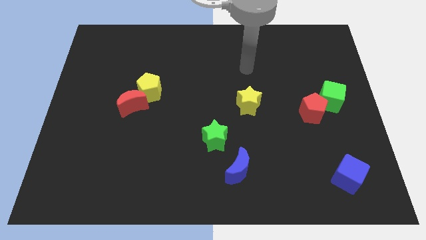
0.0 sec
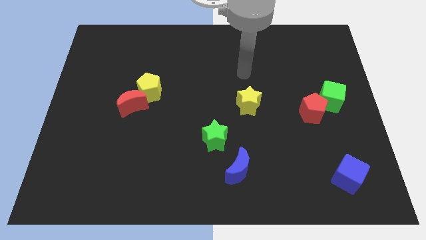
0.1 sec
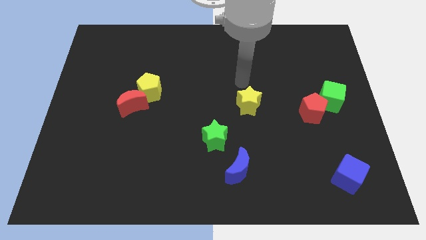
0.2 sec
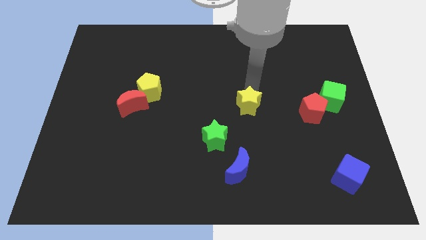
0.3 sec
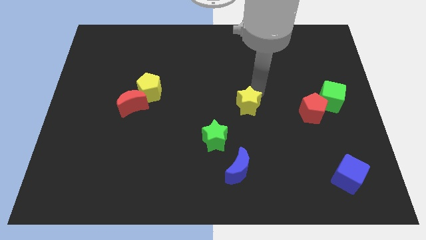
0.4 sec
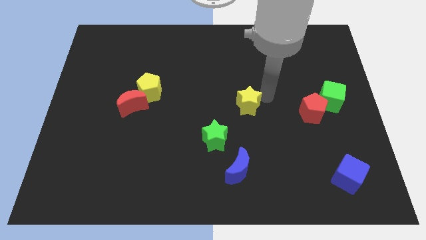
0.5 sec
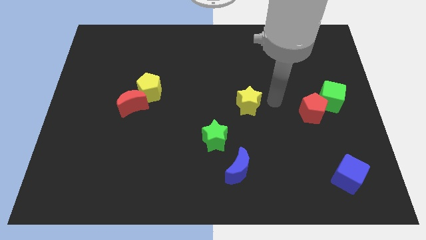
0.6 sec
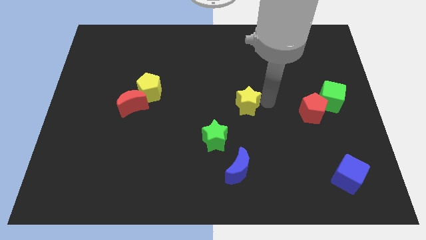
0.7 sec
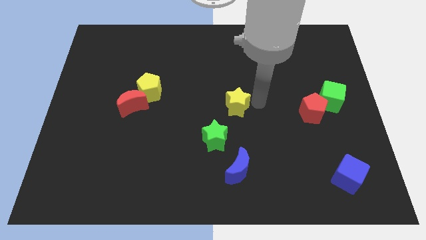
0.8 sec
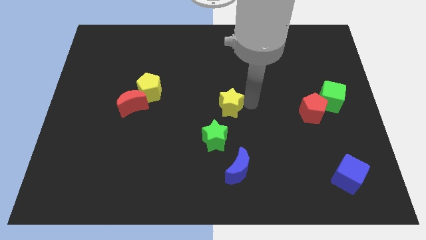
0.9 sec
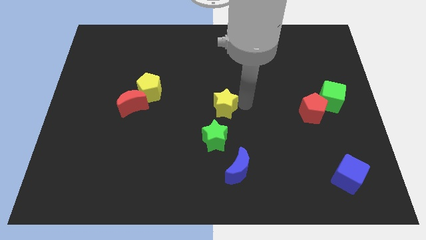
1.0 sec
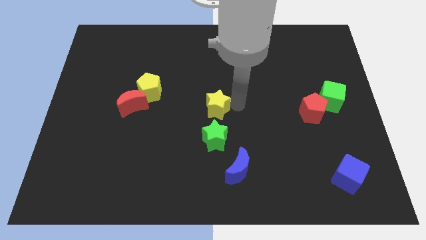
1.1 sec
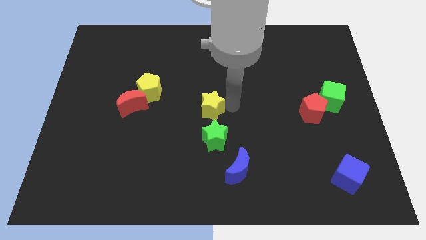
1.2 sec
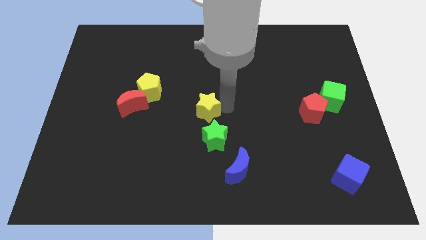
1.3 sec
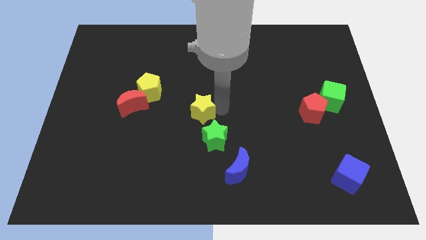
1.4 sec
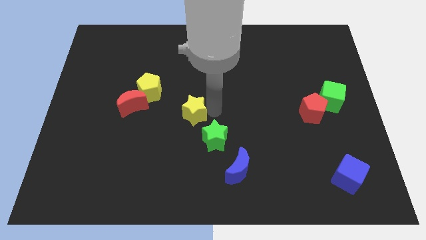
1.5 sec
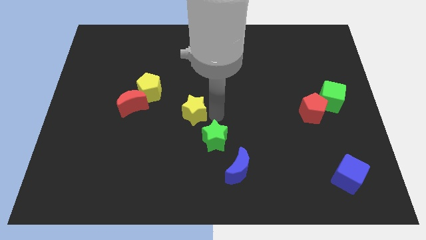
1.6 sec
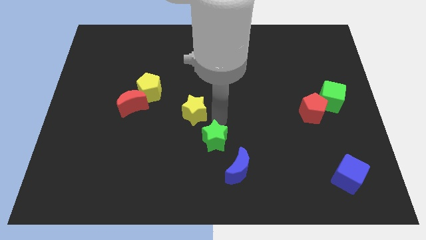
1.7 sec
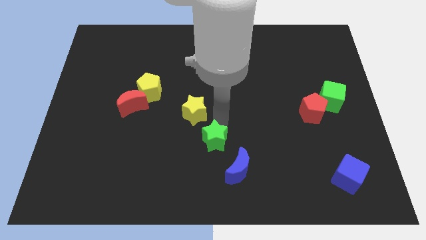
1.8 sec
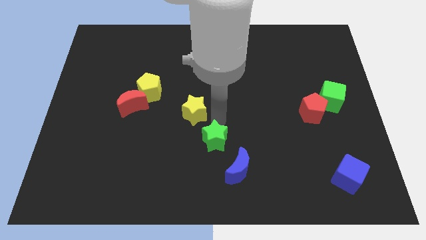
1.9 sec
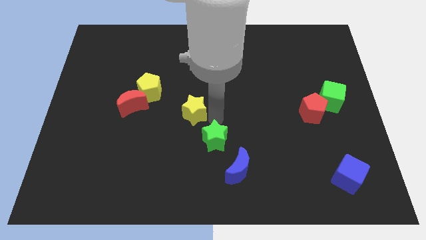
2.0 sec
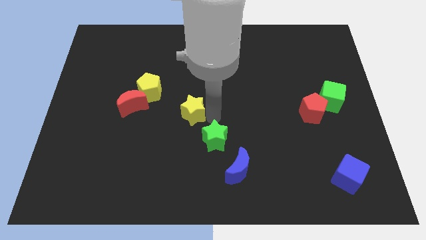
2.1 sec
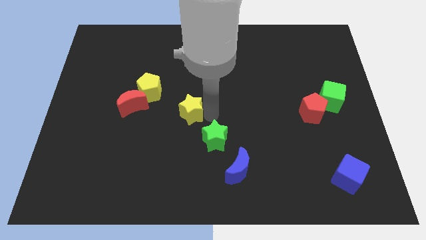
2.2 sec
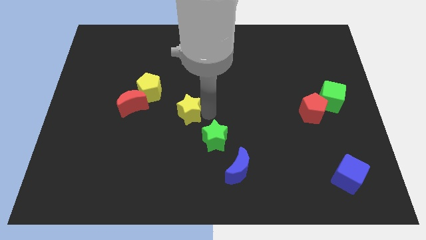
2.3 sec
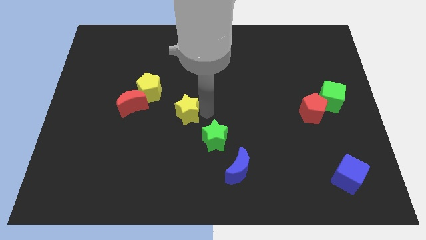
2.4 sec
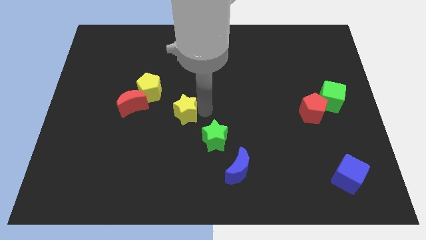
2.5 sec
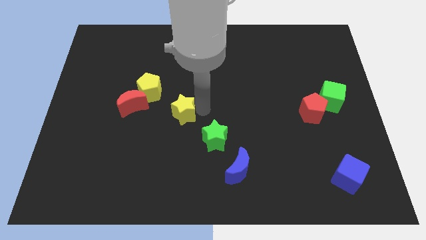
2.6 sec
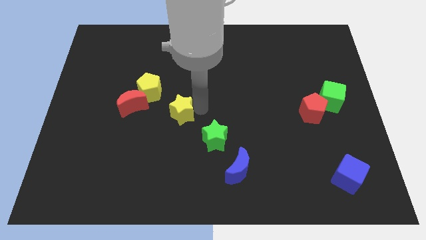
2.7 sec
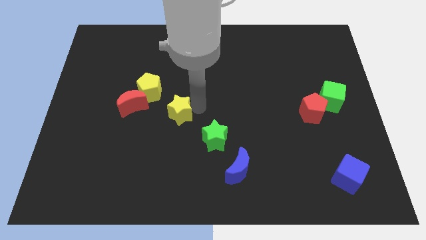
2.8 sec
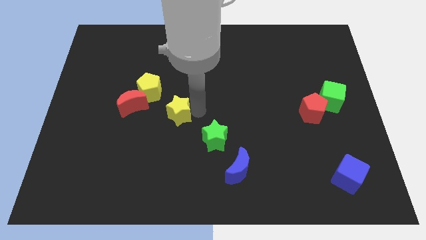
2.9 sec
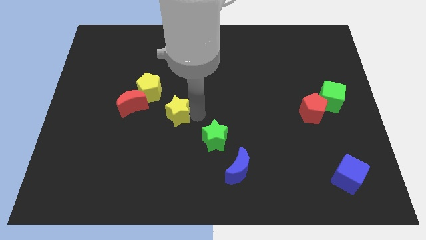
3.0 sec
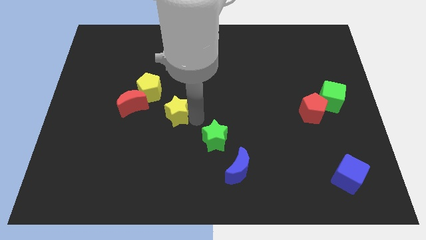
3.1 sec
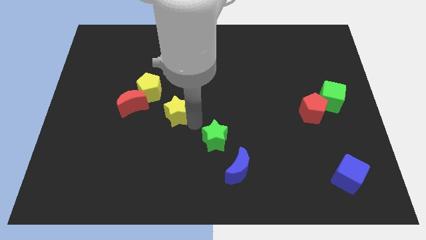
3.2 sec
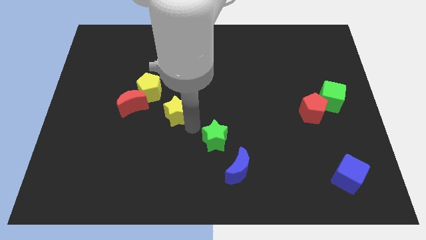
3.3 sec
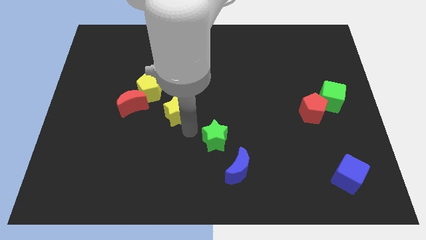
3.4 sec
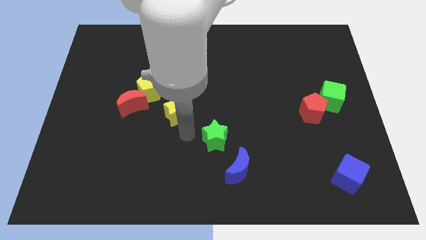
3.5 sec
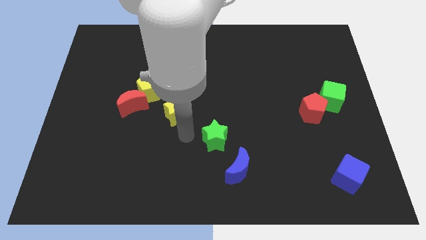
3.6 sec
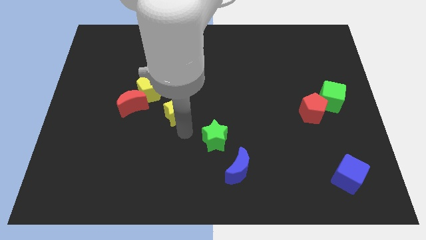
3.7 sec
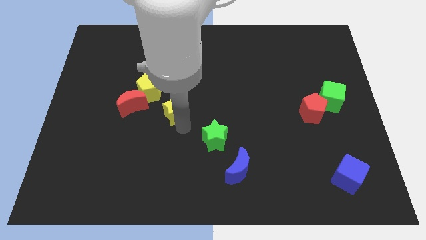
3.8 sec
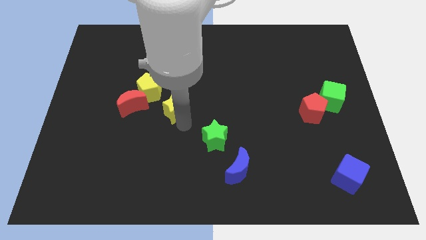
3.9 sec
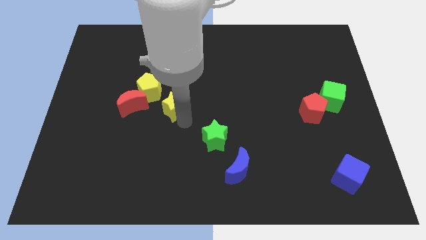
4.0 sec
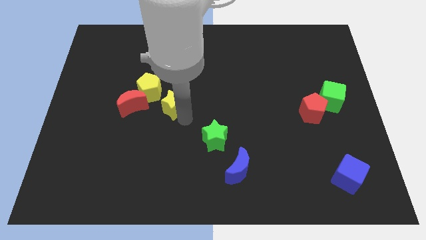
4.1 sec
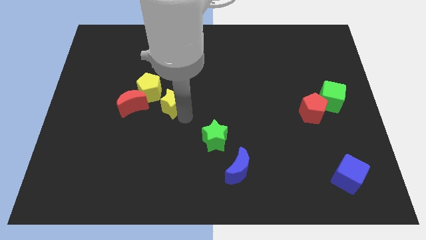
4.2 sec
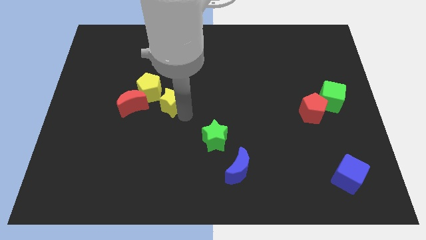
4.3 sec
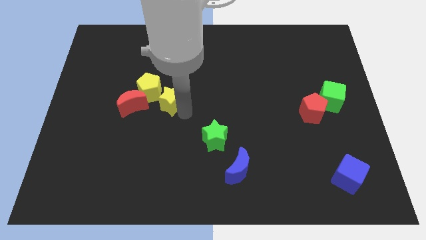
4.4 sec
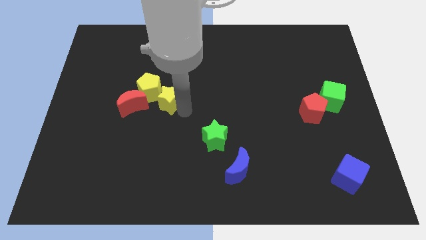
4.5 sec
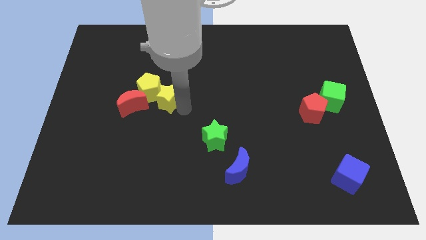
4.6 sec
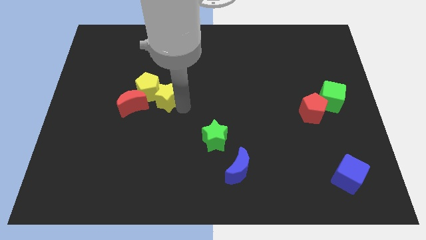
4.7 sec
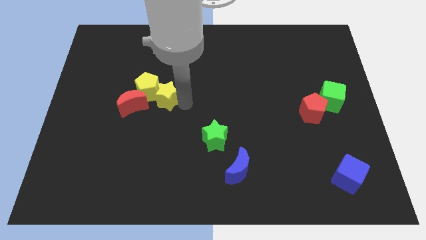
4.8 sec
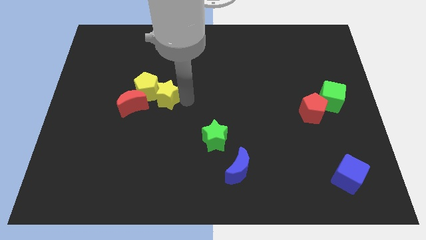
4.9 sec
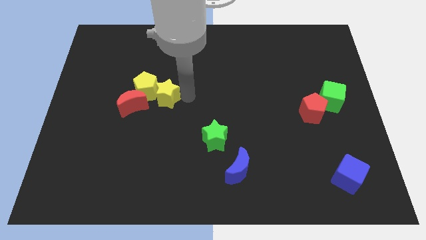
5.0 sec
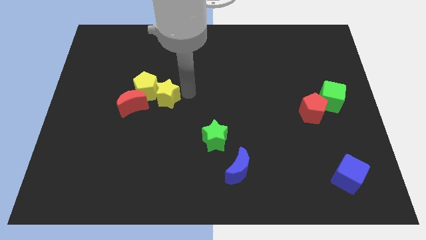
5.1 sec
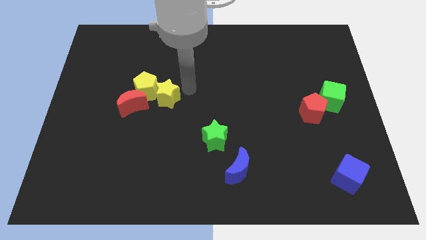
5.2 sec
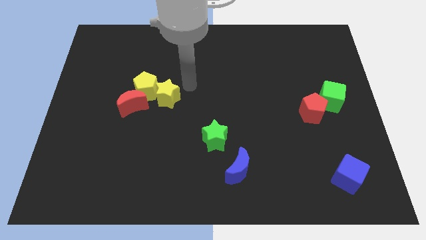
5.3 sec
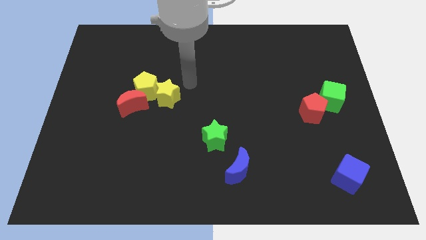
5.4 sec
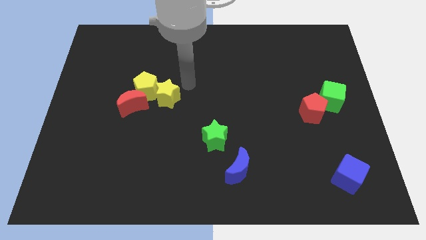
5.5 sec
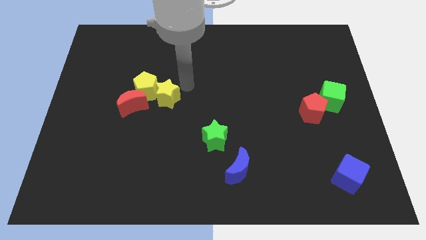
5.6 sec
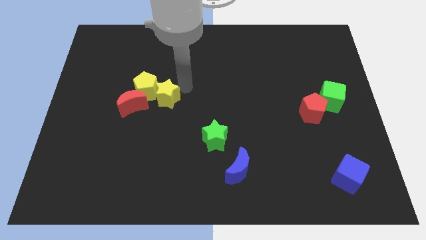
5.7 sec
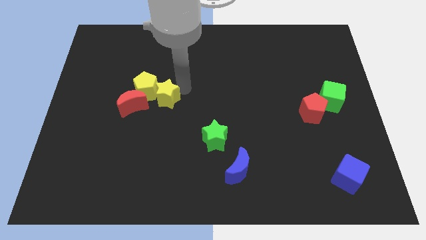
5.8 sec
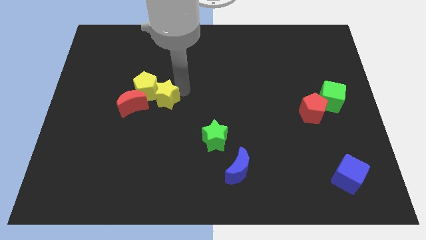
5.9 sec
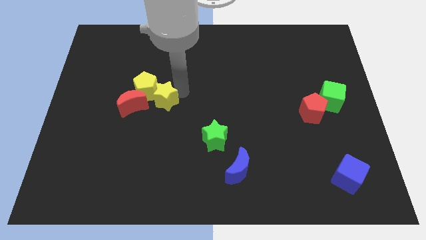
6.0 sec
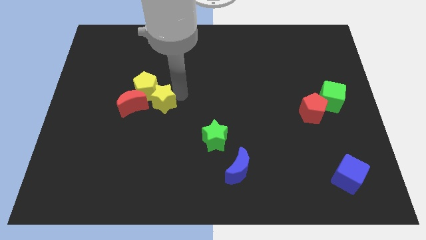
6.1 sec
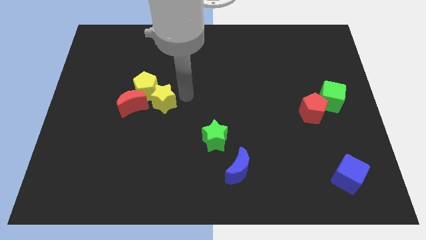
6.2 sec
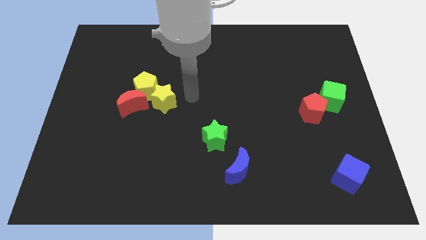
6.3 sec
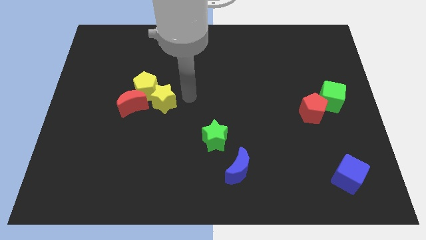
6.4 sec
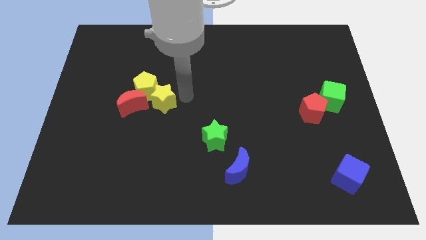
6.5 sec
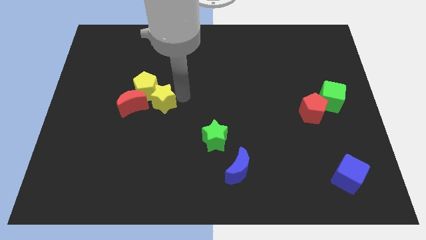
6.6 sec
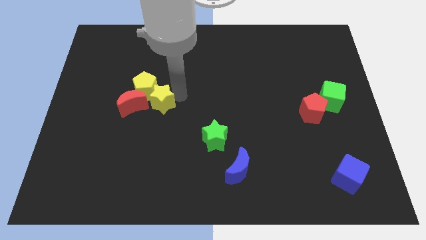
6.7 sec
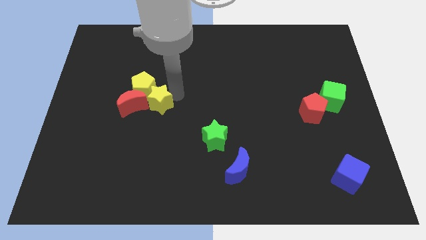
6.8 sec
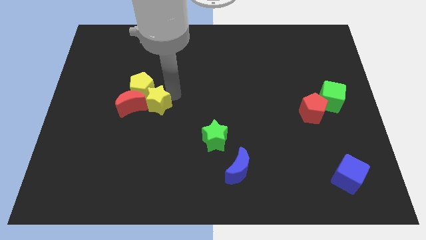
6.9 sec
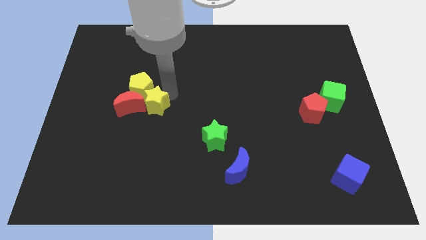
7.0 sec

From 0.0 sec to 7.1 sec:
push the yellow star close to the red moon

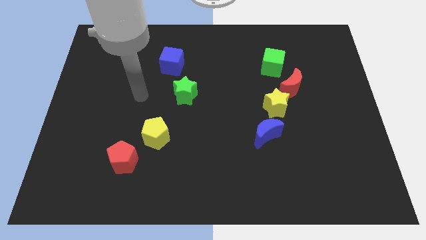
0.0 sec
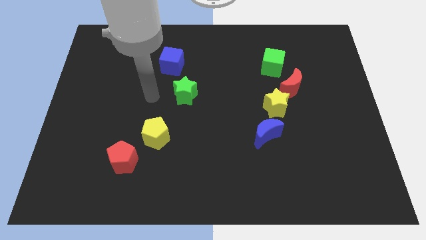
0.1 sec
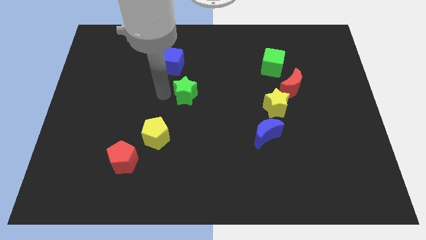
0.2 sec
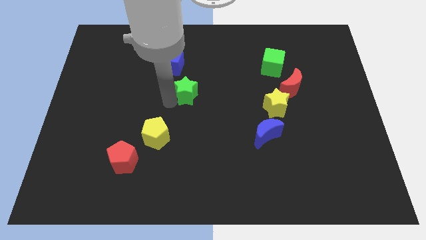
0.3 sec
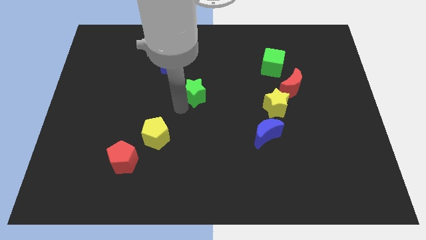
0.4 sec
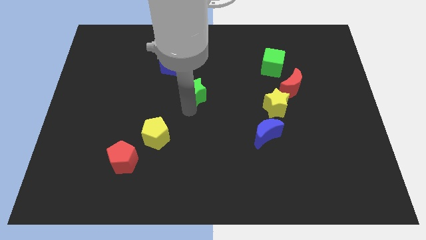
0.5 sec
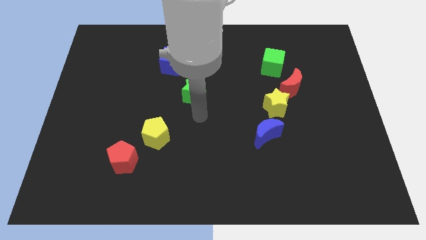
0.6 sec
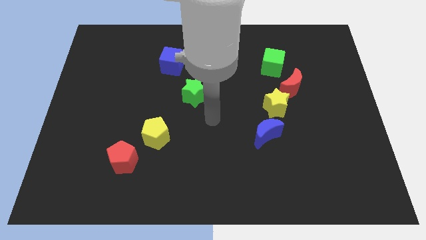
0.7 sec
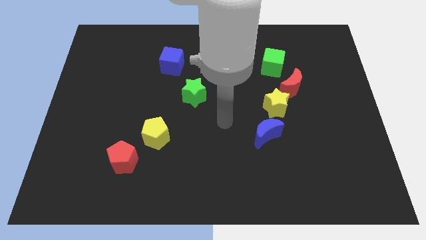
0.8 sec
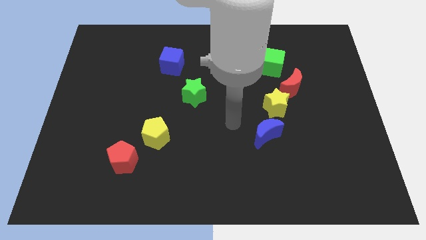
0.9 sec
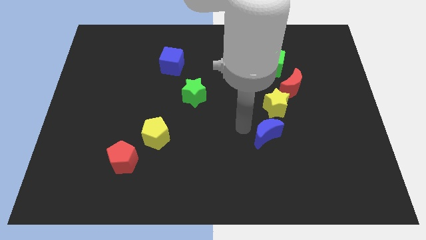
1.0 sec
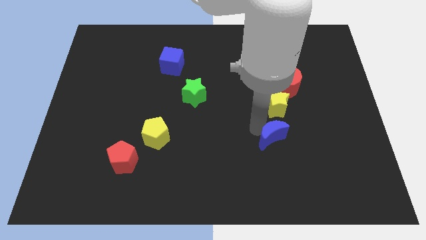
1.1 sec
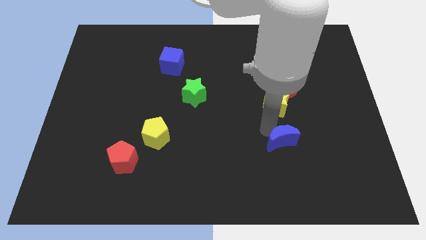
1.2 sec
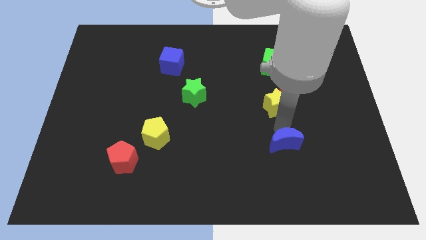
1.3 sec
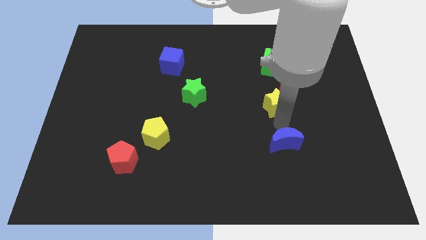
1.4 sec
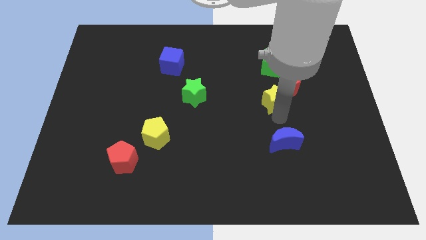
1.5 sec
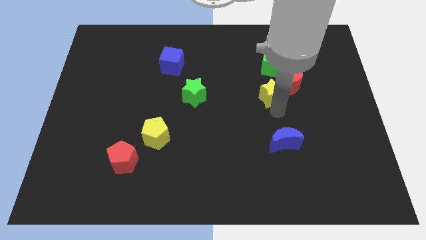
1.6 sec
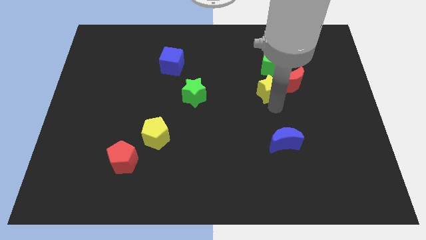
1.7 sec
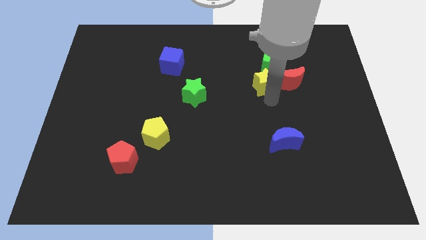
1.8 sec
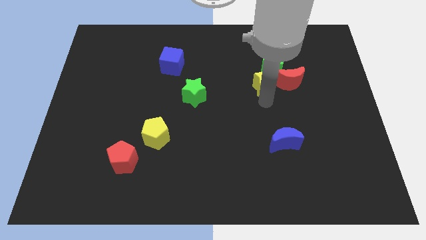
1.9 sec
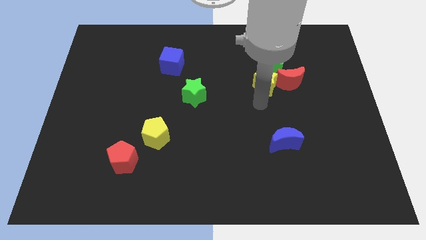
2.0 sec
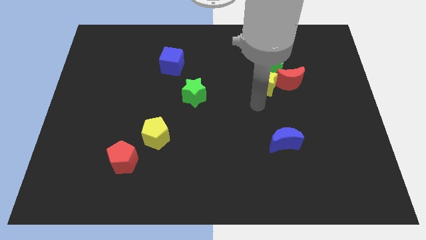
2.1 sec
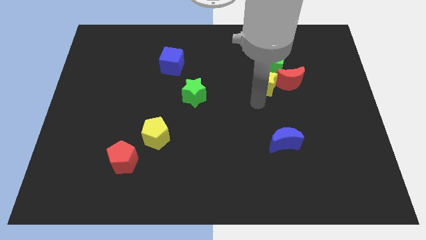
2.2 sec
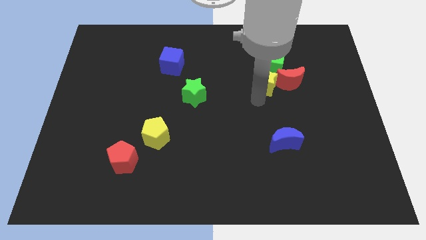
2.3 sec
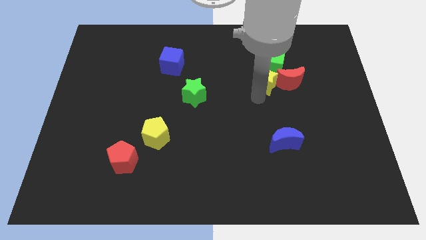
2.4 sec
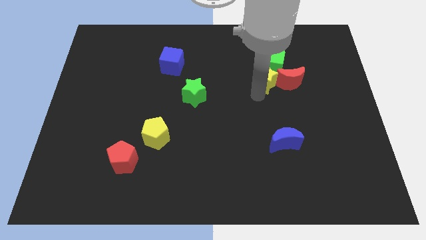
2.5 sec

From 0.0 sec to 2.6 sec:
move the yellow star towards the green cube
